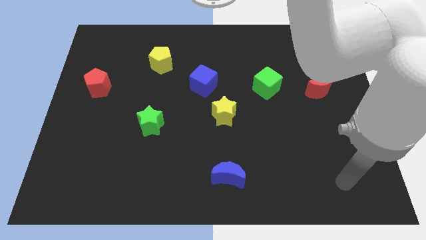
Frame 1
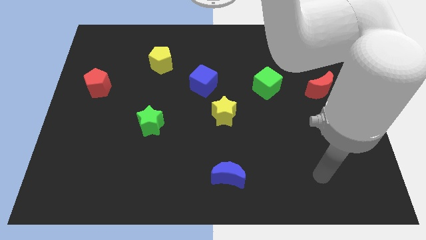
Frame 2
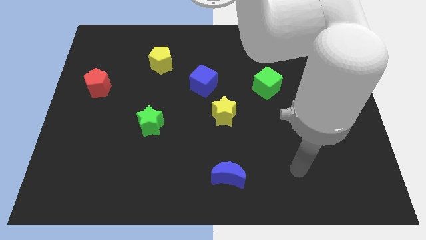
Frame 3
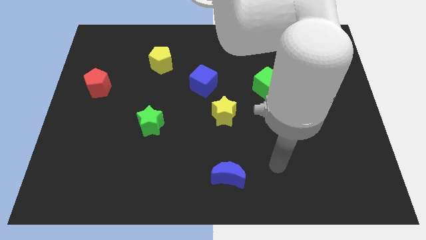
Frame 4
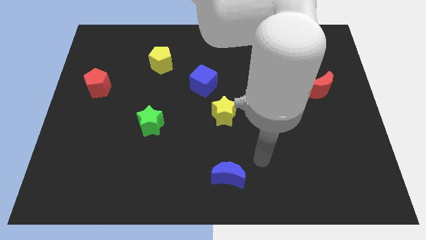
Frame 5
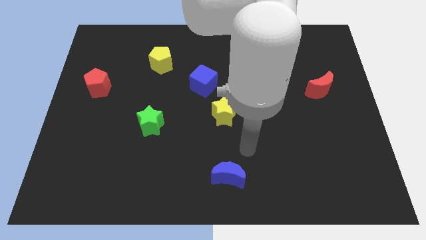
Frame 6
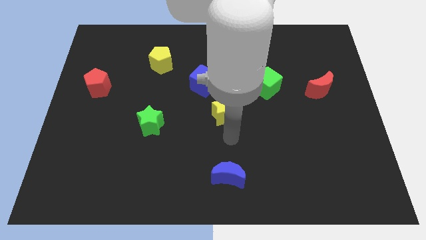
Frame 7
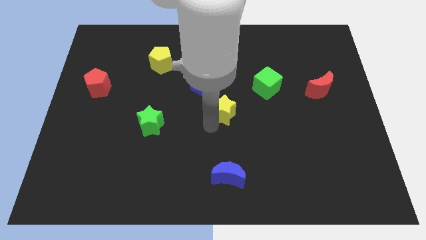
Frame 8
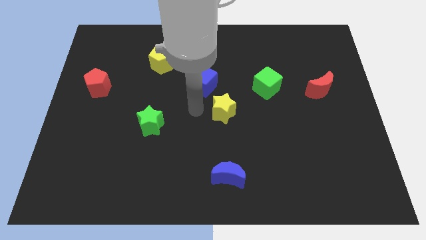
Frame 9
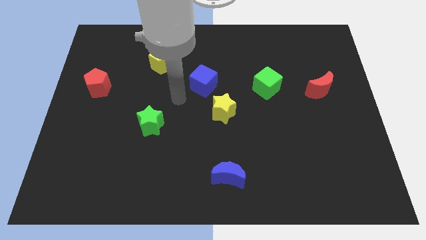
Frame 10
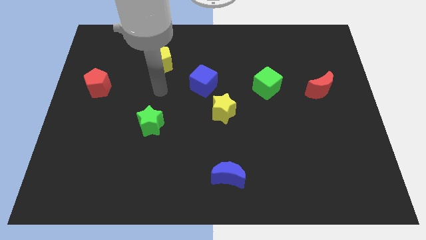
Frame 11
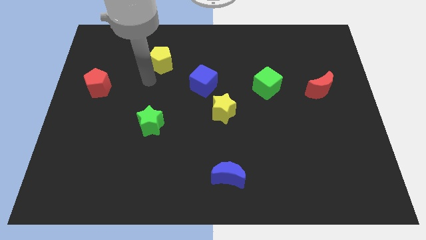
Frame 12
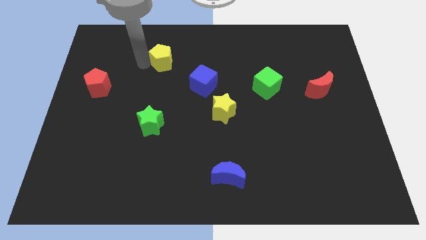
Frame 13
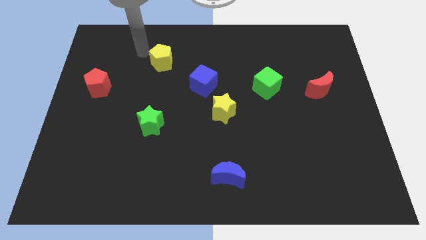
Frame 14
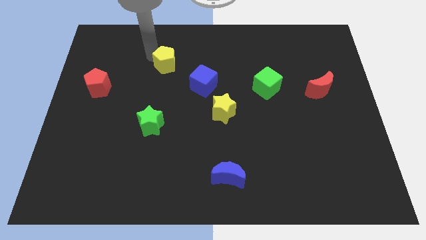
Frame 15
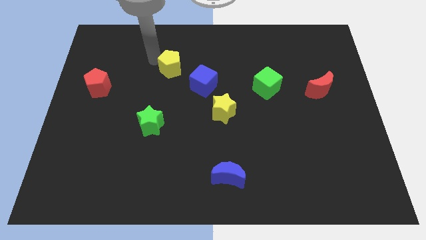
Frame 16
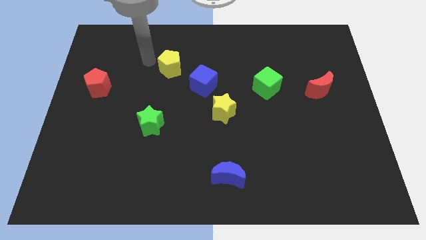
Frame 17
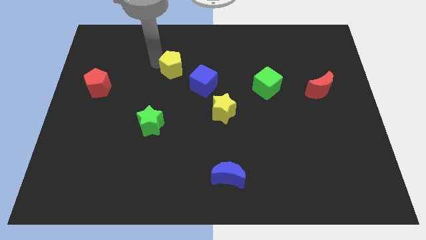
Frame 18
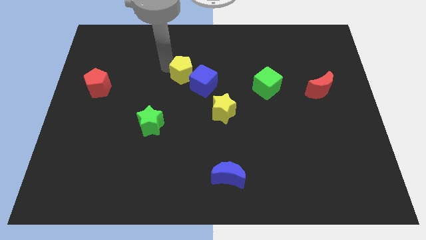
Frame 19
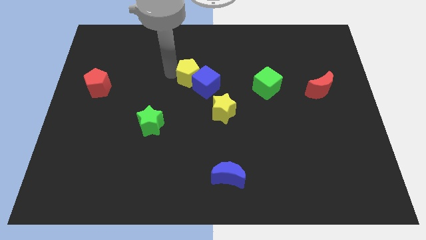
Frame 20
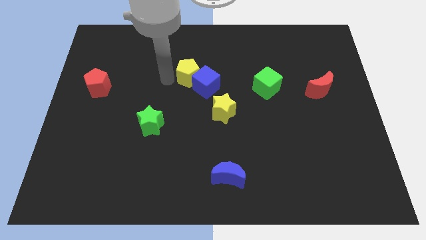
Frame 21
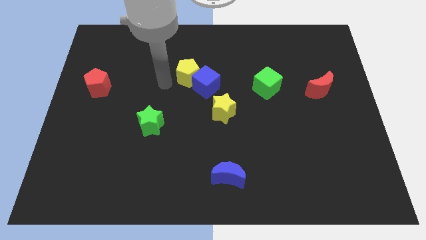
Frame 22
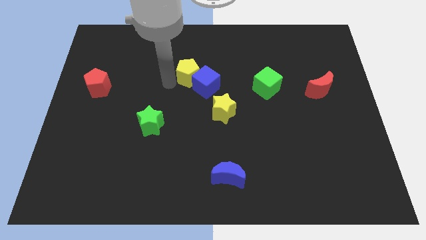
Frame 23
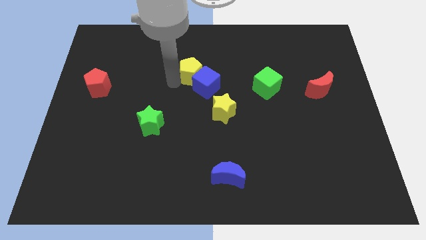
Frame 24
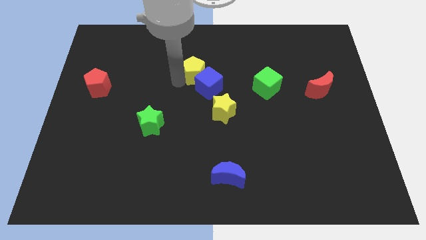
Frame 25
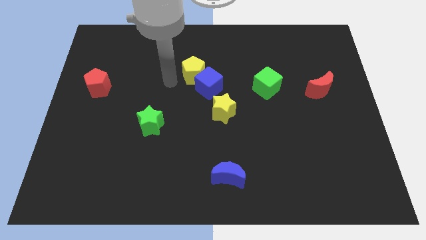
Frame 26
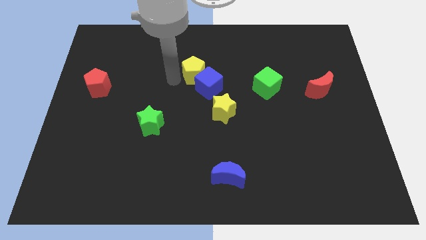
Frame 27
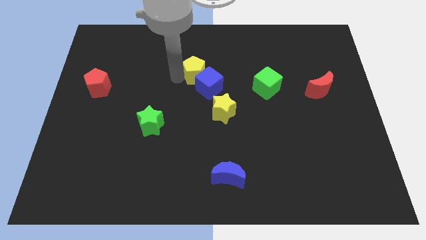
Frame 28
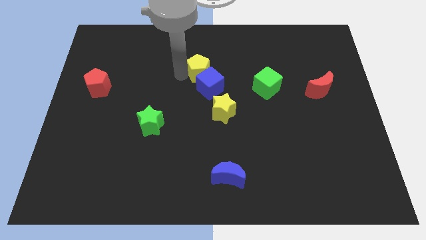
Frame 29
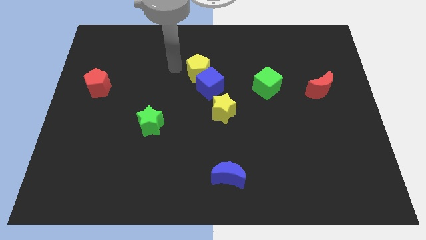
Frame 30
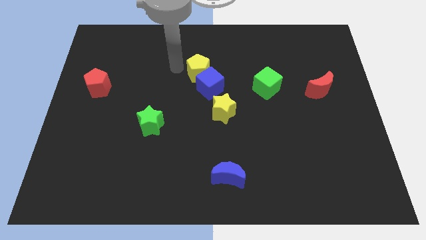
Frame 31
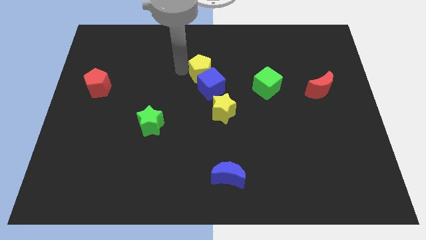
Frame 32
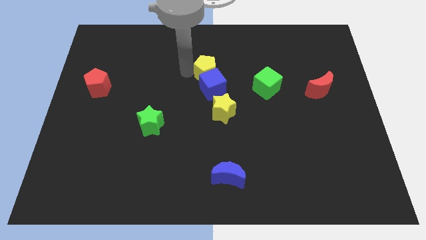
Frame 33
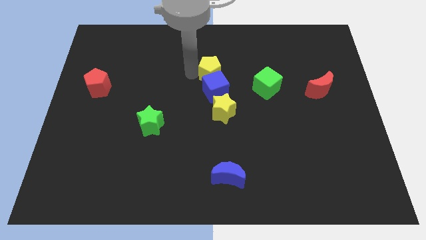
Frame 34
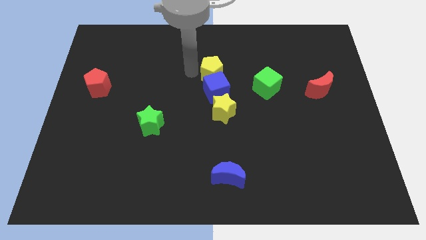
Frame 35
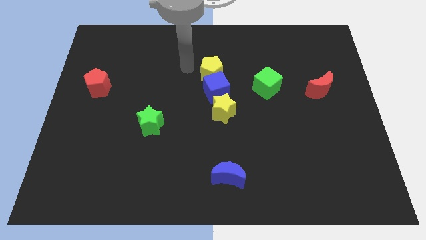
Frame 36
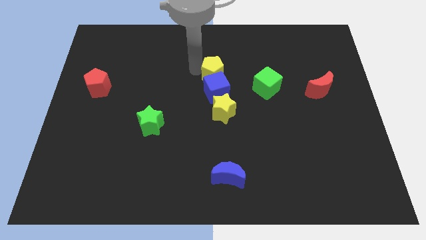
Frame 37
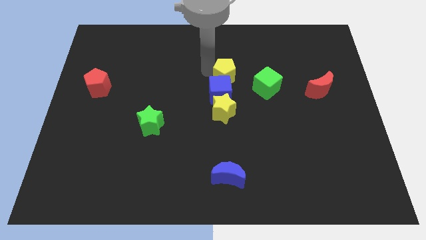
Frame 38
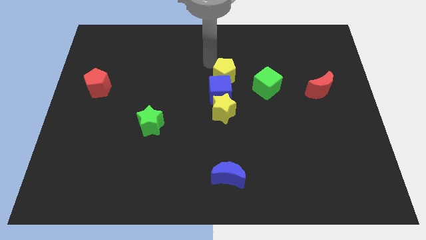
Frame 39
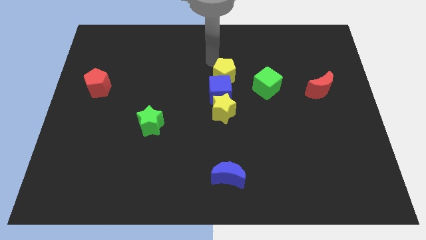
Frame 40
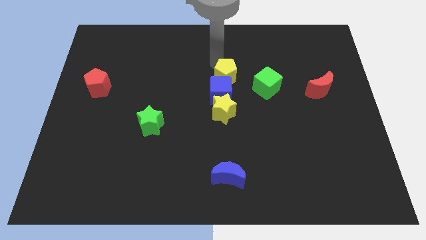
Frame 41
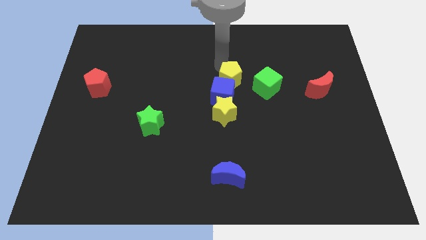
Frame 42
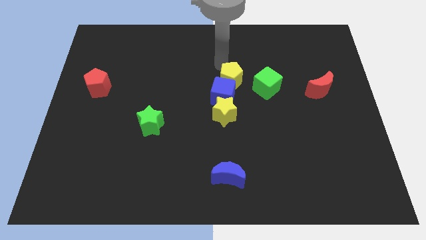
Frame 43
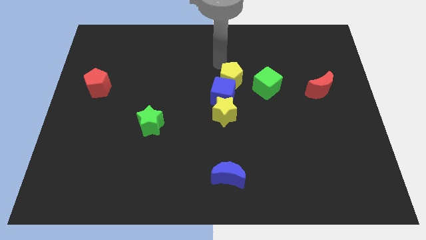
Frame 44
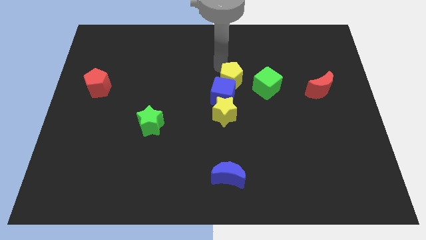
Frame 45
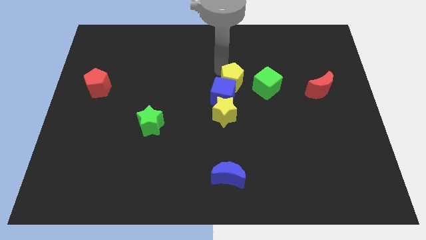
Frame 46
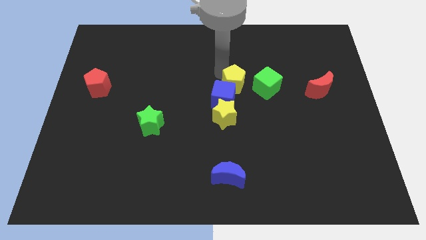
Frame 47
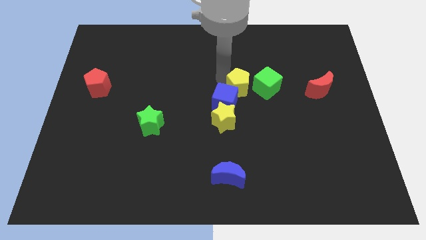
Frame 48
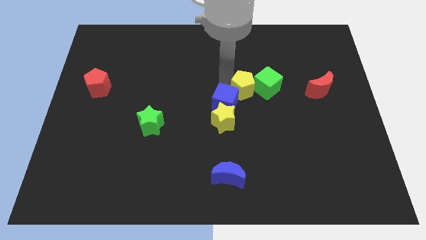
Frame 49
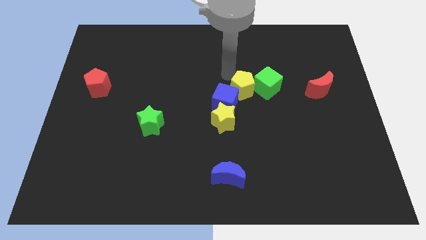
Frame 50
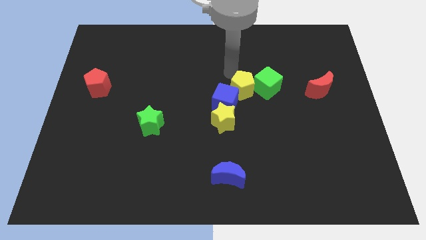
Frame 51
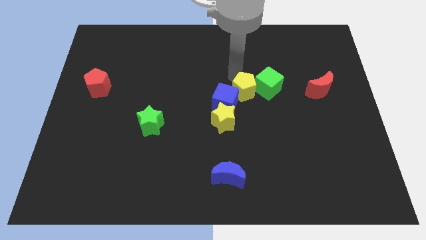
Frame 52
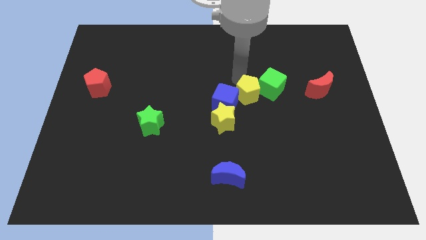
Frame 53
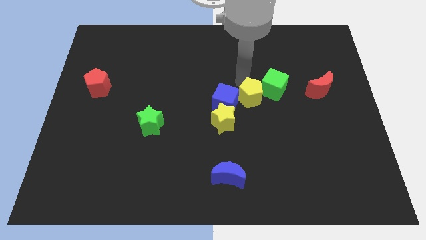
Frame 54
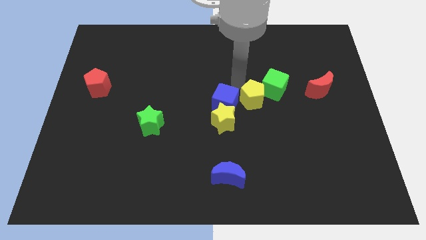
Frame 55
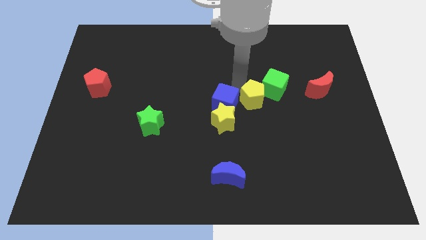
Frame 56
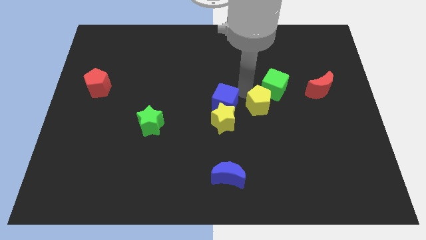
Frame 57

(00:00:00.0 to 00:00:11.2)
slide the yellow pentagon to the bottom side of the green cube

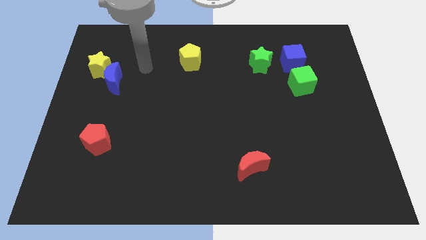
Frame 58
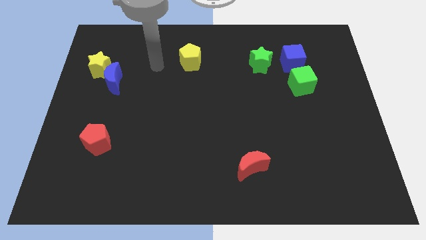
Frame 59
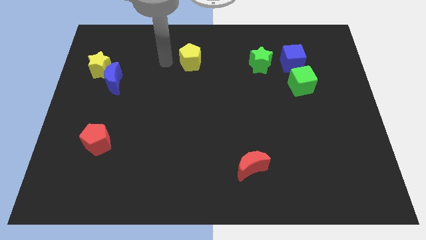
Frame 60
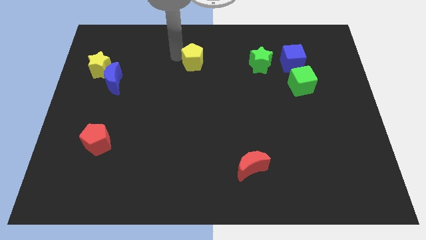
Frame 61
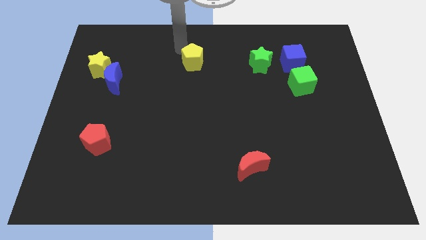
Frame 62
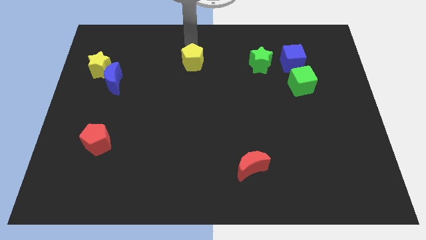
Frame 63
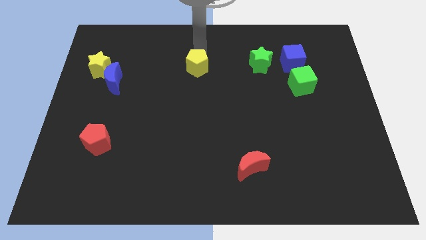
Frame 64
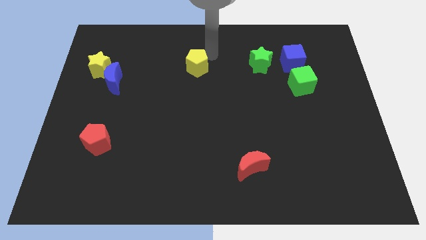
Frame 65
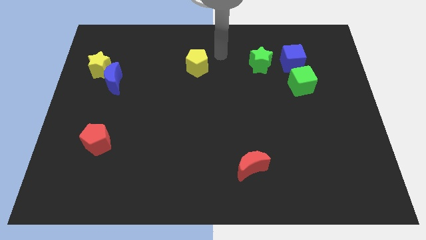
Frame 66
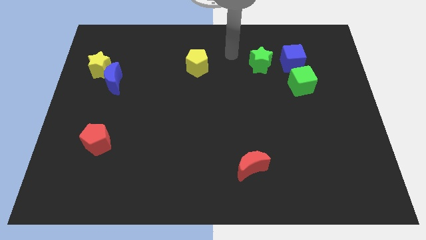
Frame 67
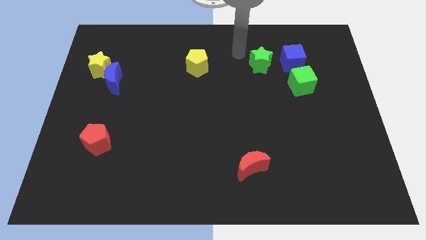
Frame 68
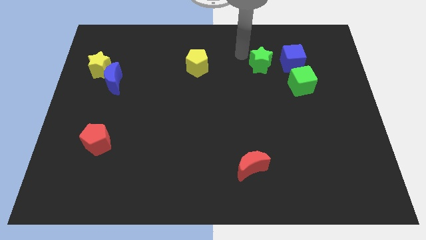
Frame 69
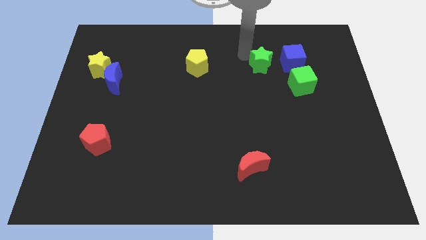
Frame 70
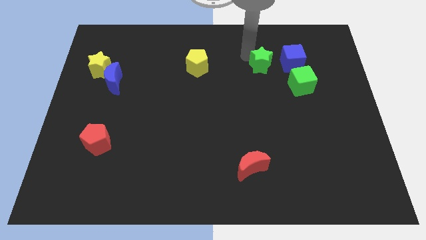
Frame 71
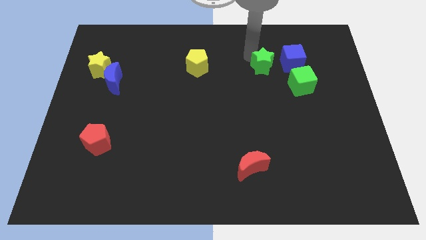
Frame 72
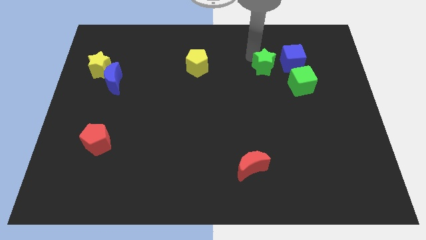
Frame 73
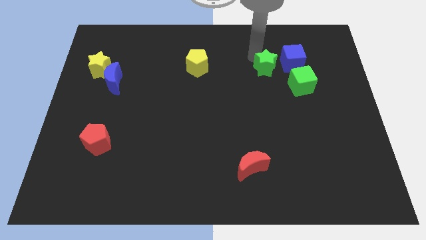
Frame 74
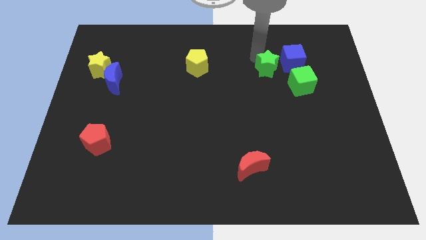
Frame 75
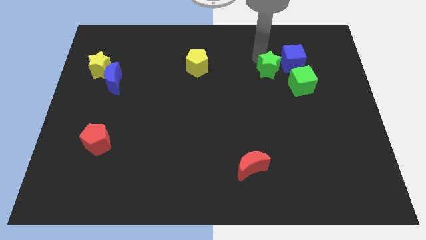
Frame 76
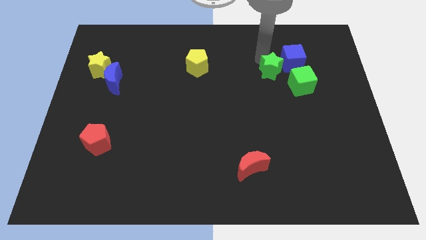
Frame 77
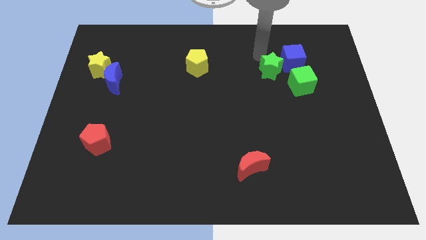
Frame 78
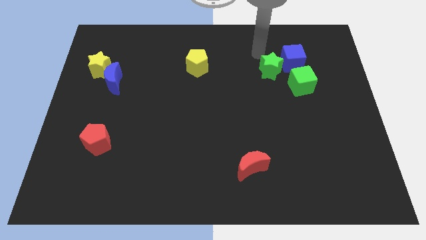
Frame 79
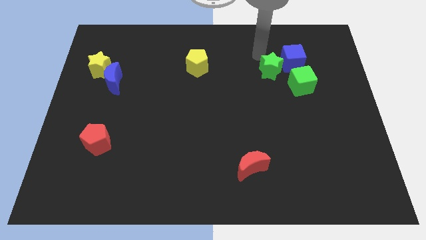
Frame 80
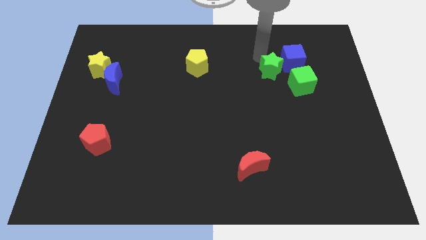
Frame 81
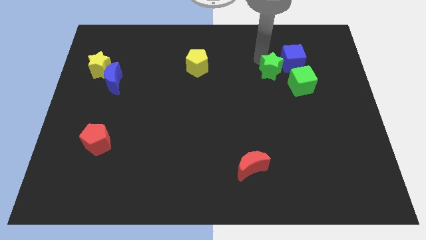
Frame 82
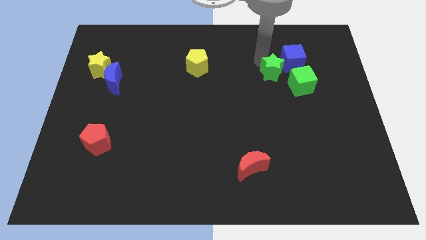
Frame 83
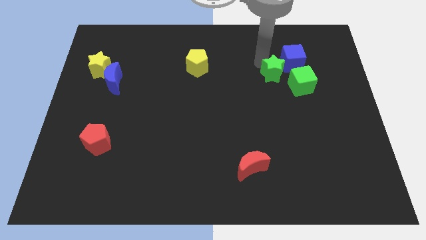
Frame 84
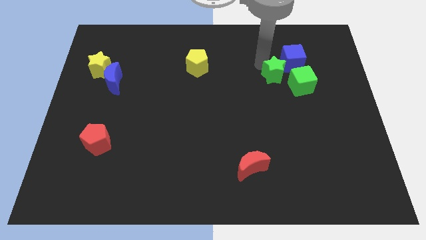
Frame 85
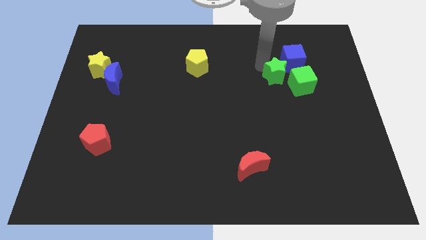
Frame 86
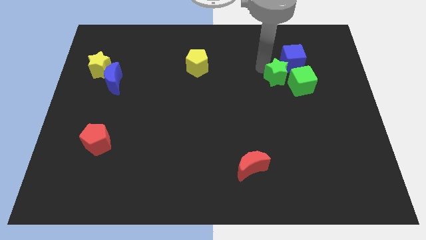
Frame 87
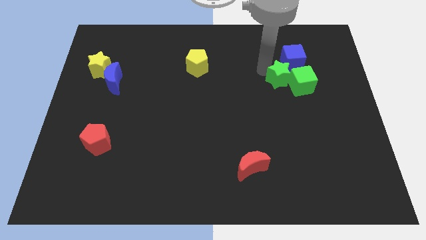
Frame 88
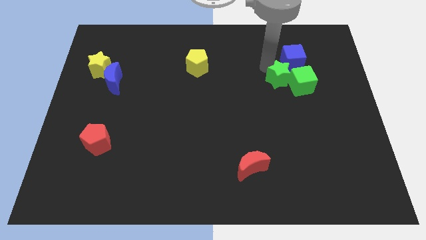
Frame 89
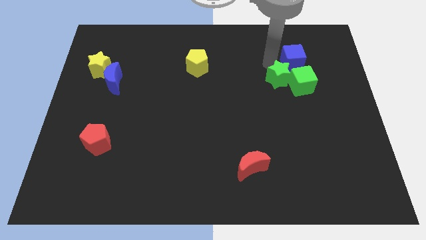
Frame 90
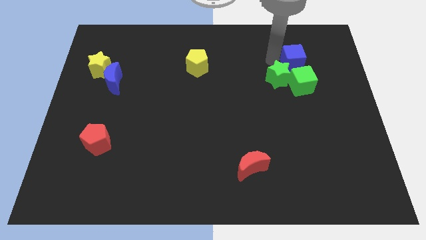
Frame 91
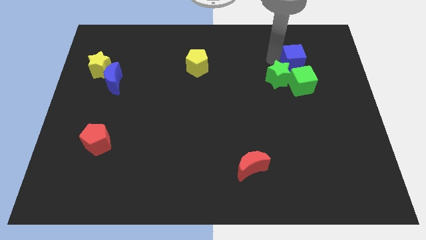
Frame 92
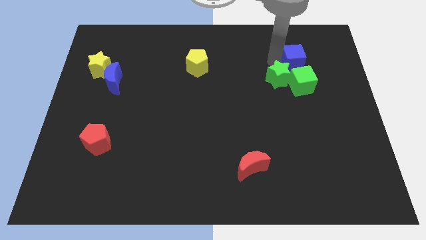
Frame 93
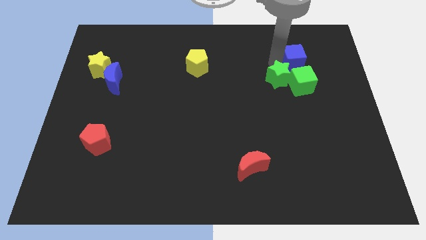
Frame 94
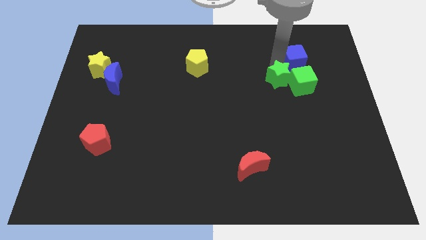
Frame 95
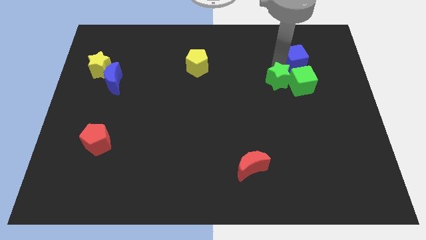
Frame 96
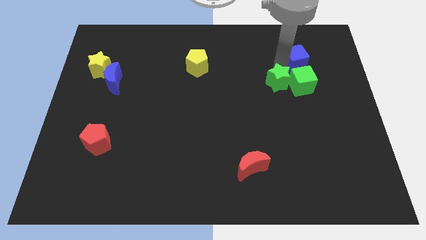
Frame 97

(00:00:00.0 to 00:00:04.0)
push the green star diagonally down and to the left of the green cube
